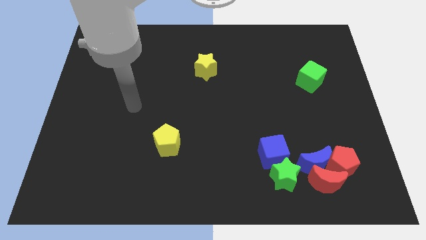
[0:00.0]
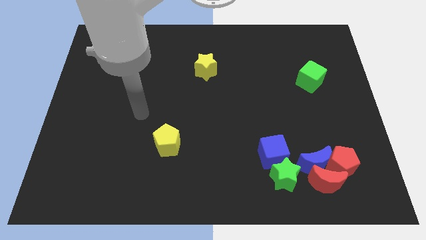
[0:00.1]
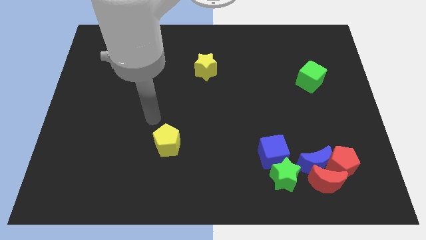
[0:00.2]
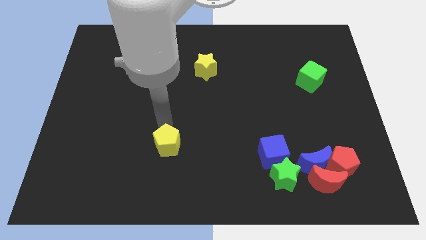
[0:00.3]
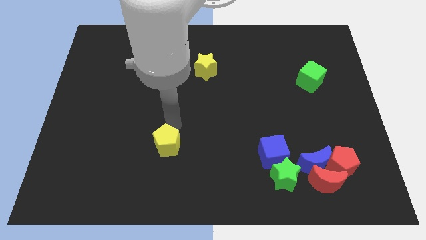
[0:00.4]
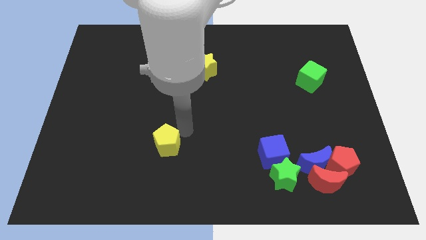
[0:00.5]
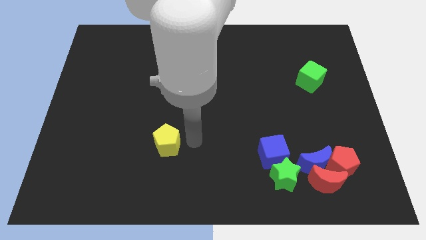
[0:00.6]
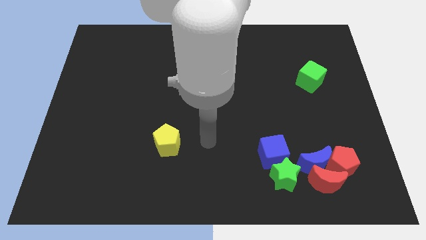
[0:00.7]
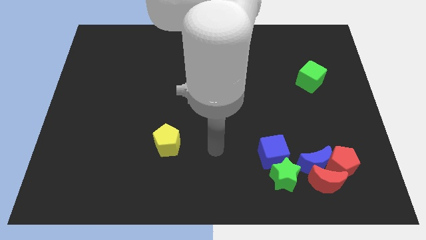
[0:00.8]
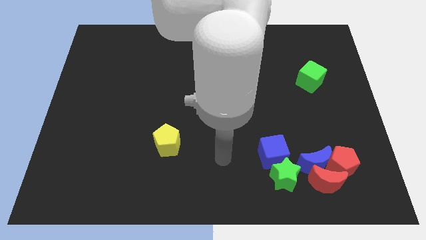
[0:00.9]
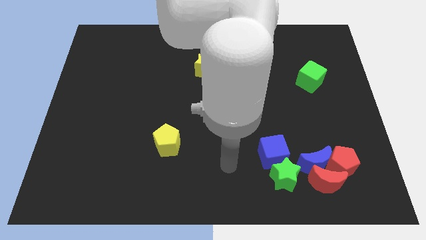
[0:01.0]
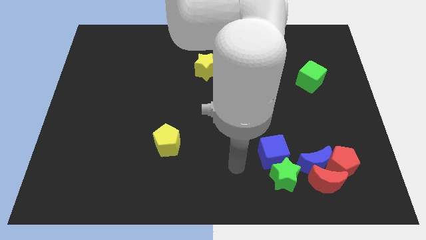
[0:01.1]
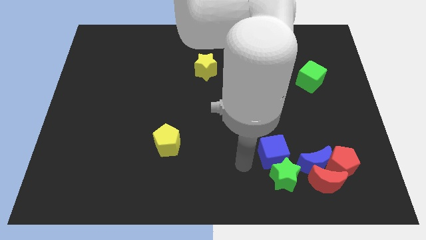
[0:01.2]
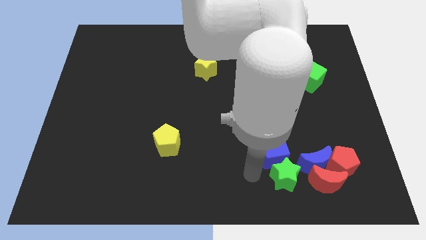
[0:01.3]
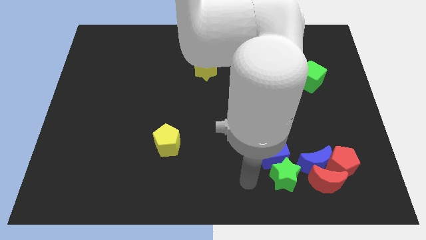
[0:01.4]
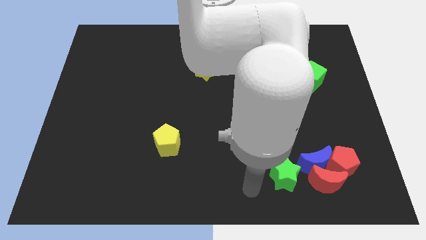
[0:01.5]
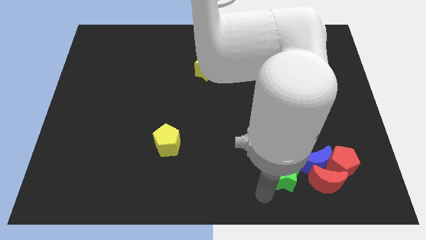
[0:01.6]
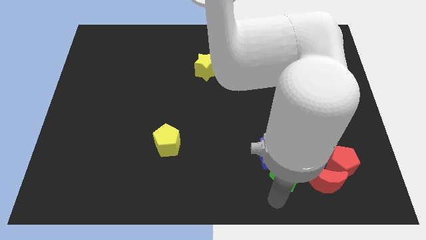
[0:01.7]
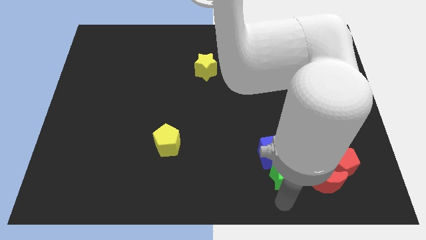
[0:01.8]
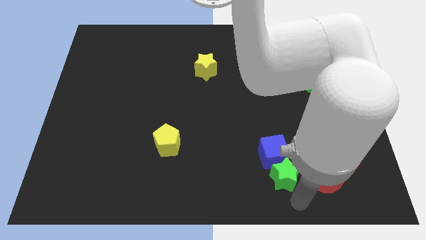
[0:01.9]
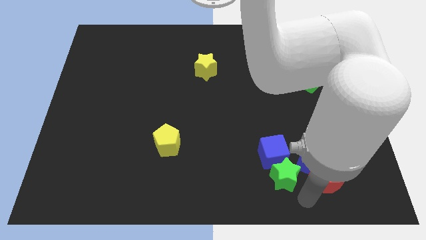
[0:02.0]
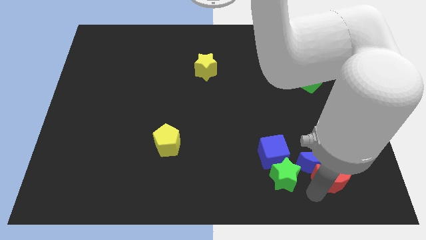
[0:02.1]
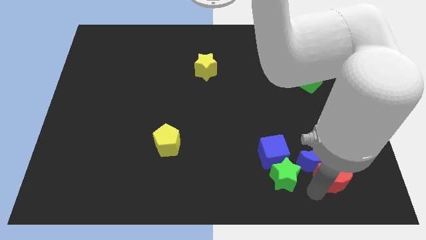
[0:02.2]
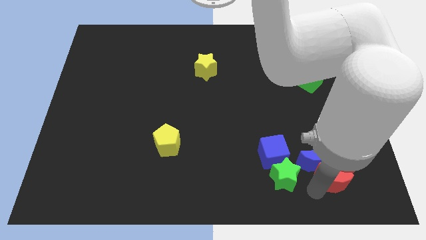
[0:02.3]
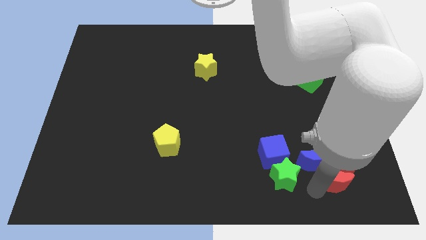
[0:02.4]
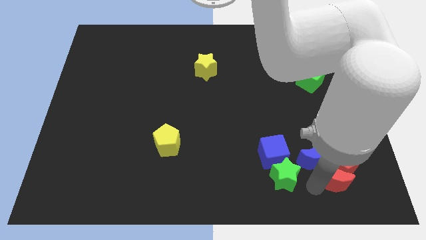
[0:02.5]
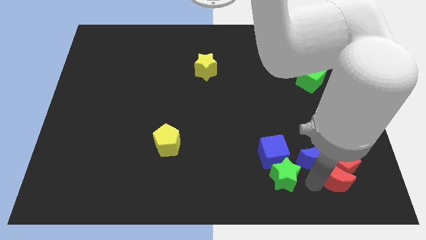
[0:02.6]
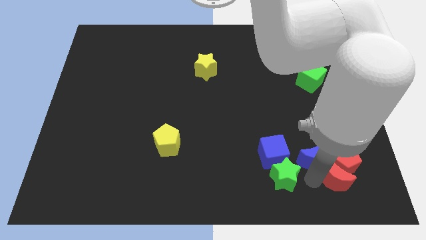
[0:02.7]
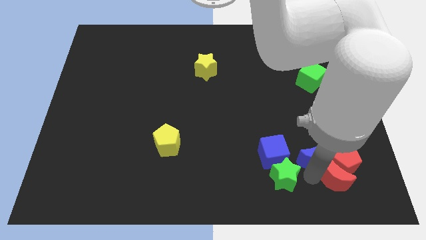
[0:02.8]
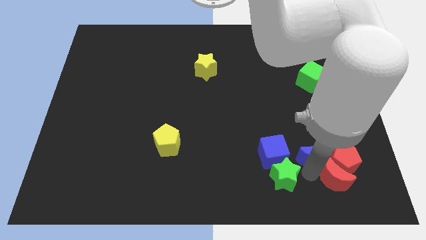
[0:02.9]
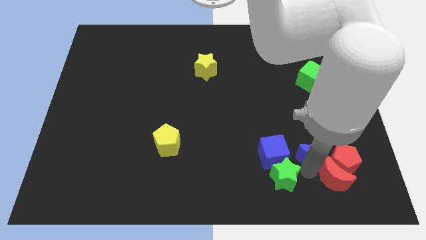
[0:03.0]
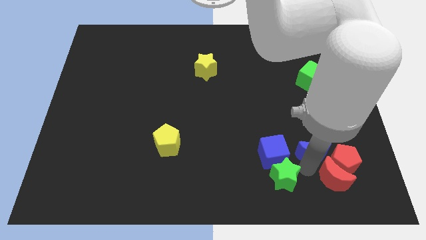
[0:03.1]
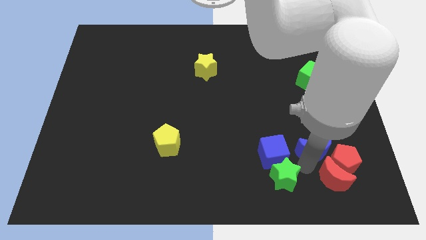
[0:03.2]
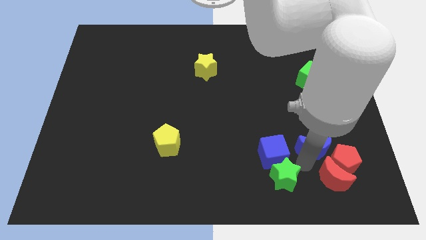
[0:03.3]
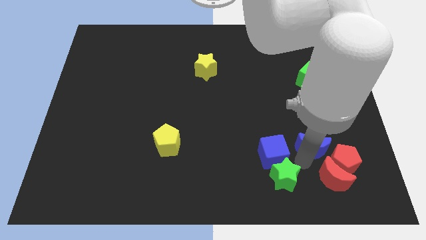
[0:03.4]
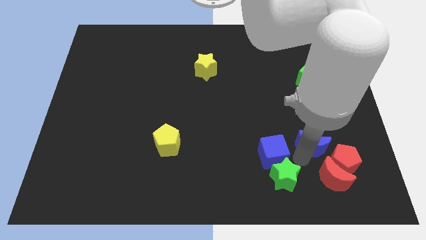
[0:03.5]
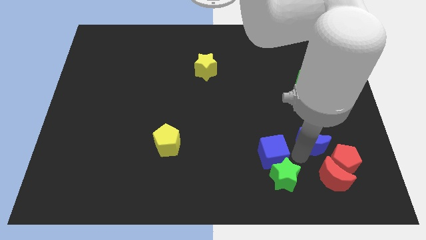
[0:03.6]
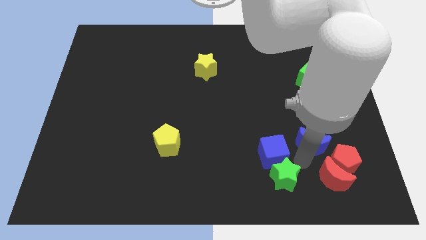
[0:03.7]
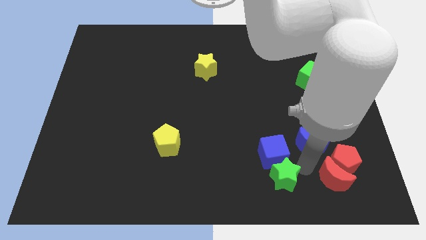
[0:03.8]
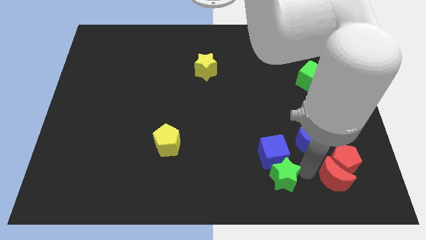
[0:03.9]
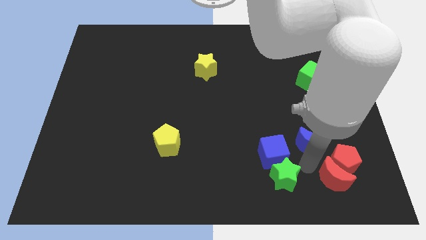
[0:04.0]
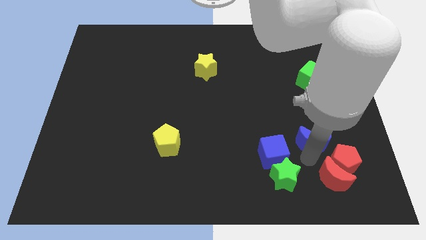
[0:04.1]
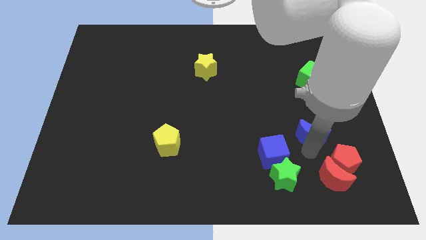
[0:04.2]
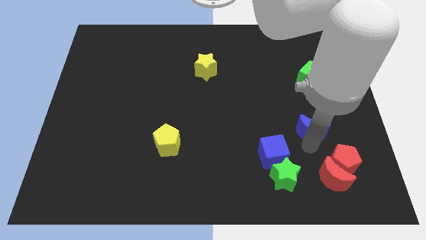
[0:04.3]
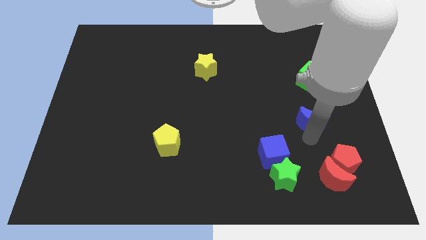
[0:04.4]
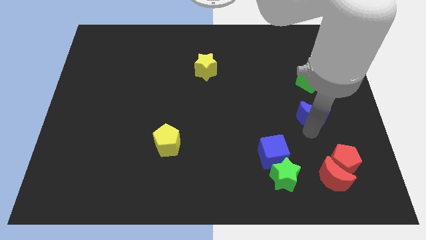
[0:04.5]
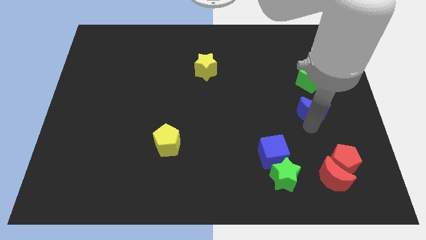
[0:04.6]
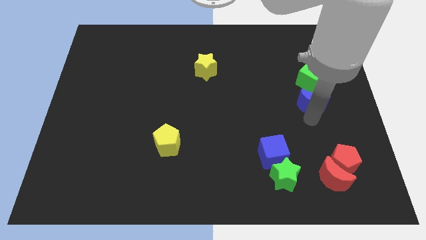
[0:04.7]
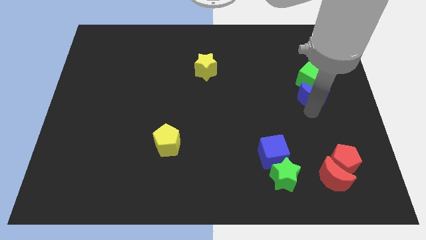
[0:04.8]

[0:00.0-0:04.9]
move the blue moon towards the green cube

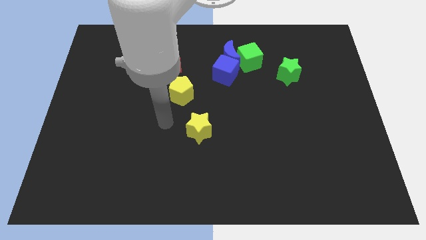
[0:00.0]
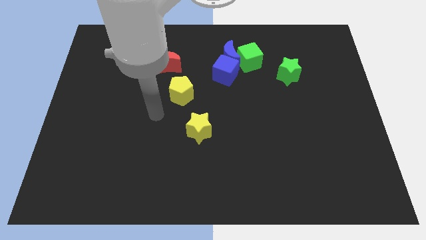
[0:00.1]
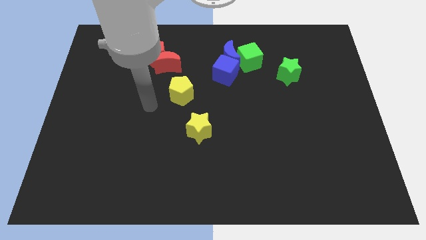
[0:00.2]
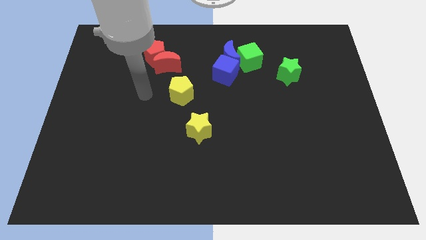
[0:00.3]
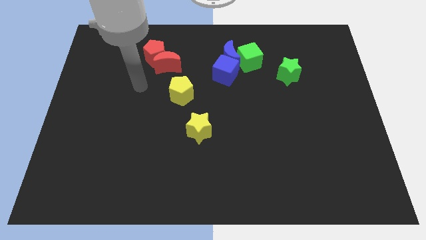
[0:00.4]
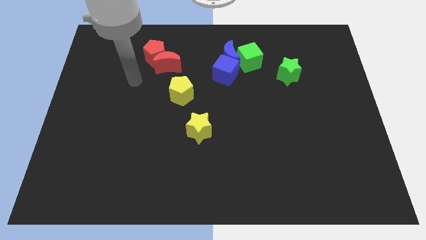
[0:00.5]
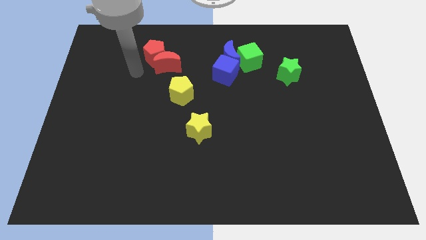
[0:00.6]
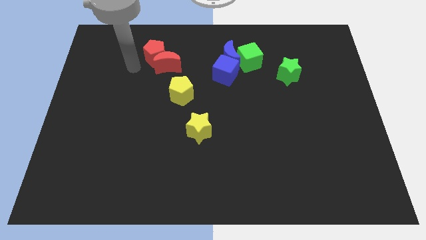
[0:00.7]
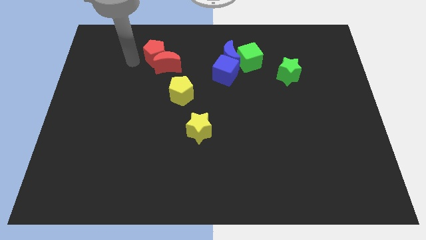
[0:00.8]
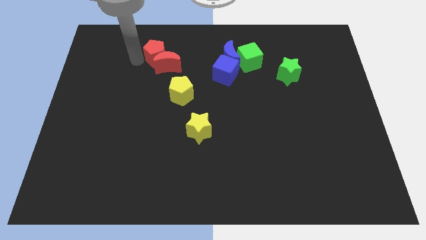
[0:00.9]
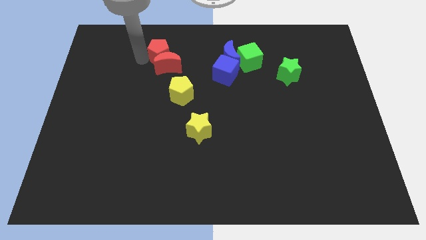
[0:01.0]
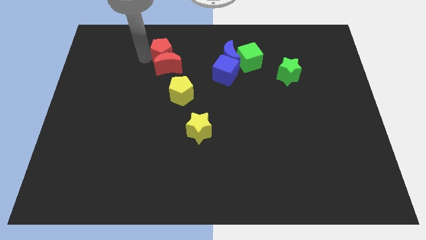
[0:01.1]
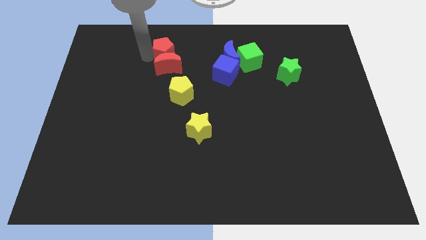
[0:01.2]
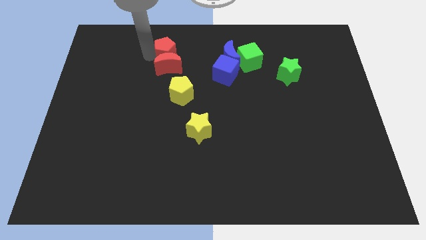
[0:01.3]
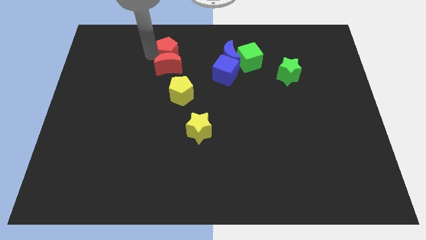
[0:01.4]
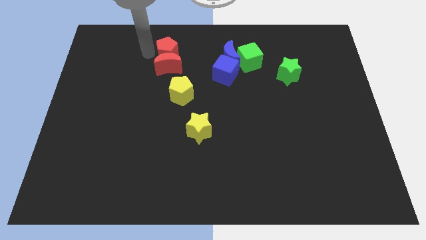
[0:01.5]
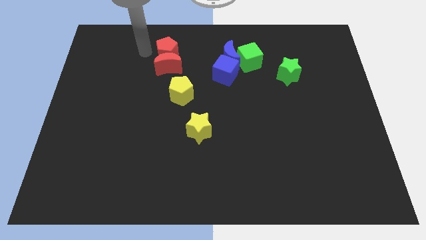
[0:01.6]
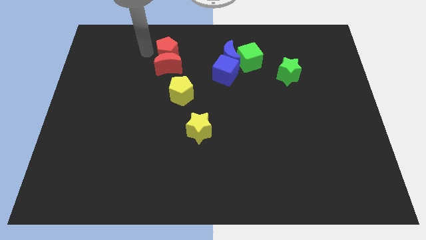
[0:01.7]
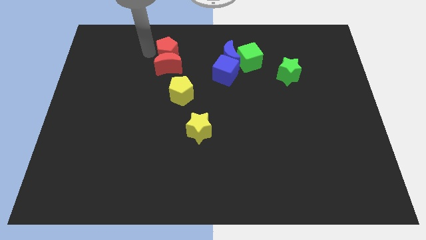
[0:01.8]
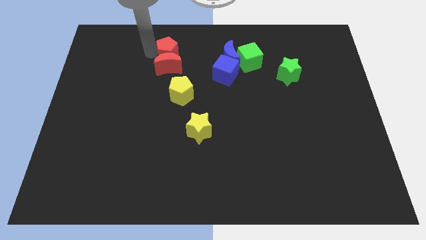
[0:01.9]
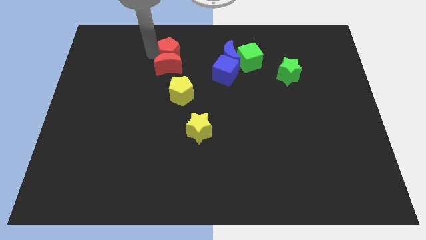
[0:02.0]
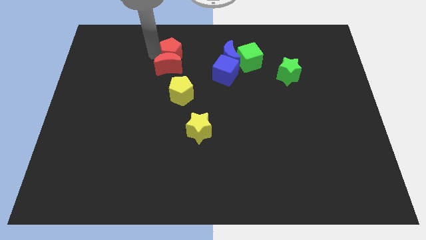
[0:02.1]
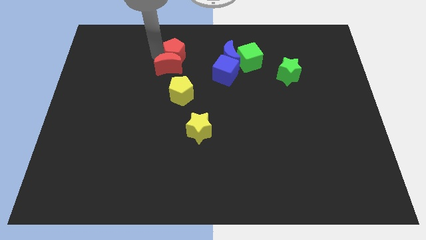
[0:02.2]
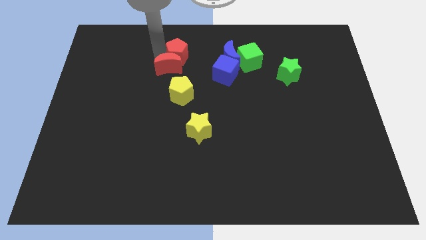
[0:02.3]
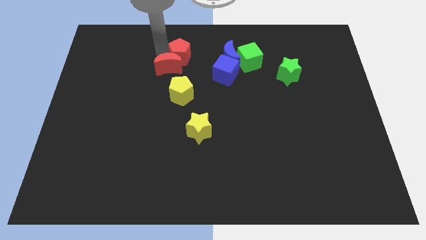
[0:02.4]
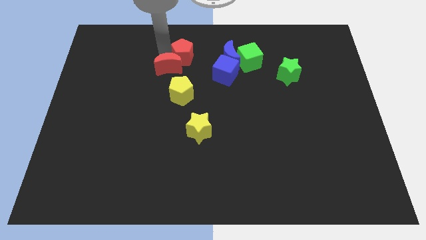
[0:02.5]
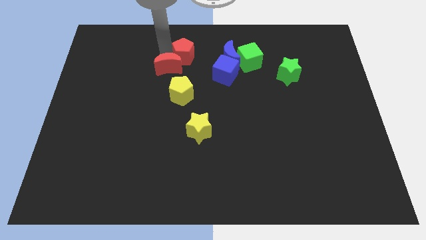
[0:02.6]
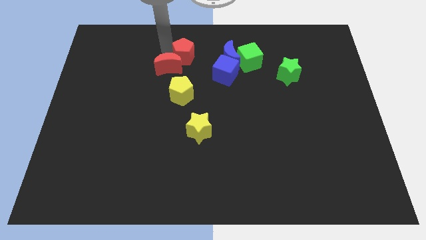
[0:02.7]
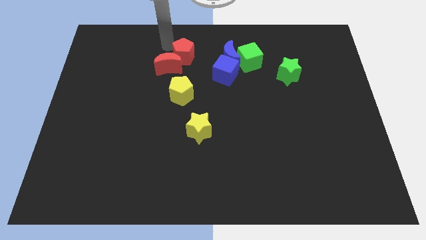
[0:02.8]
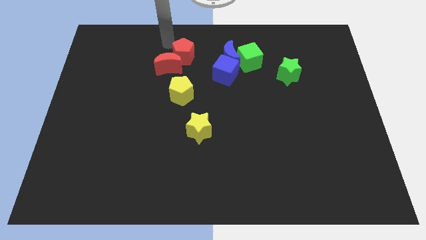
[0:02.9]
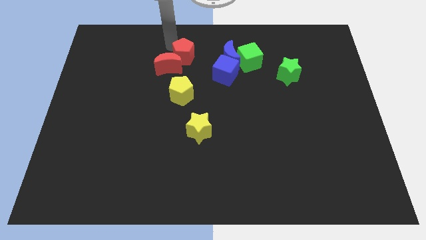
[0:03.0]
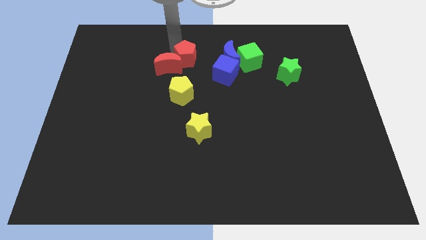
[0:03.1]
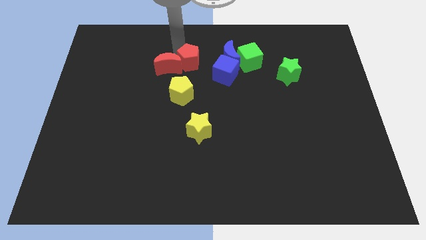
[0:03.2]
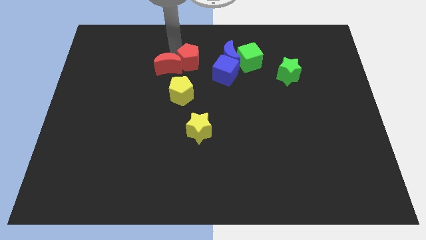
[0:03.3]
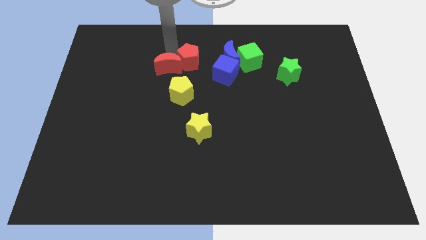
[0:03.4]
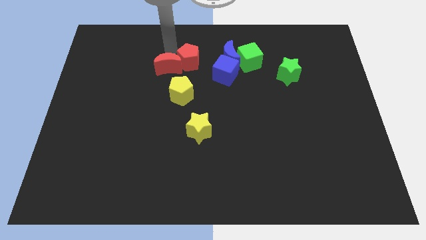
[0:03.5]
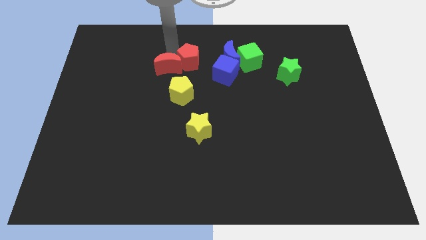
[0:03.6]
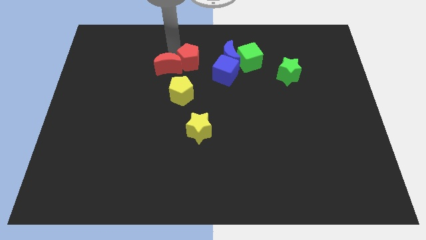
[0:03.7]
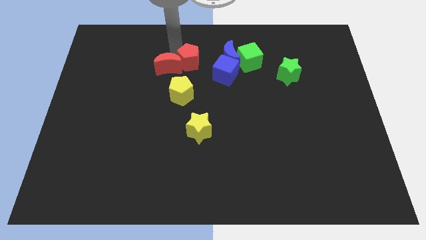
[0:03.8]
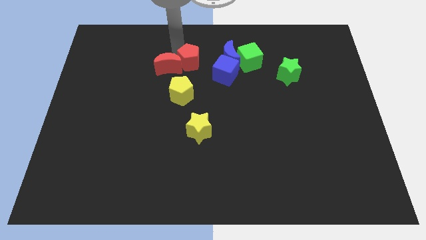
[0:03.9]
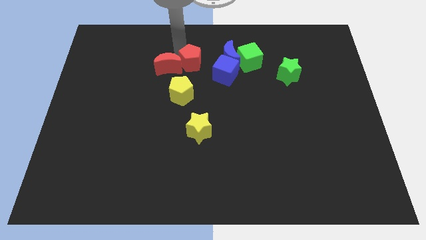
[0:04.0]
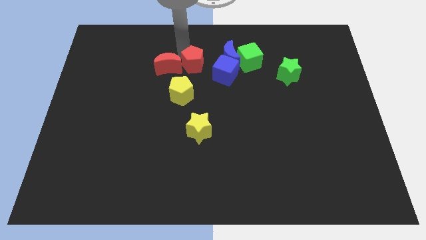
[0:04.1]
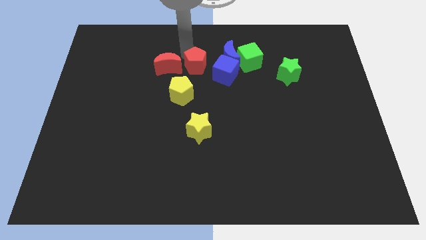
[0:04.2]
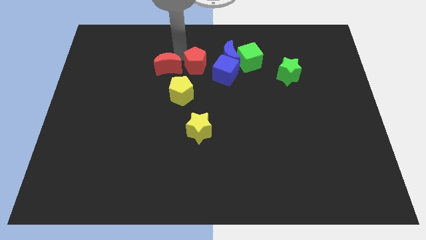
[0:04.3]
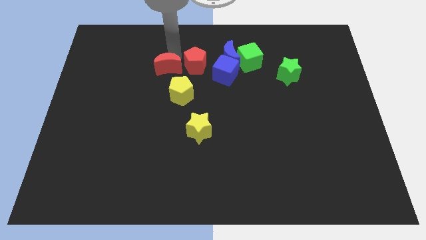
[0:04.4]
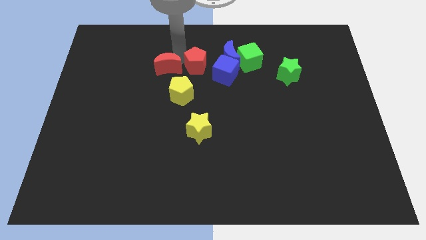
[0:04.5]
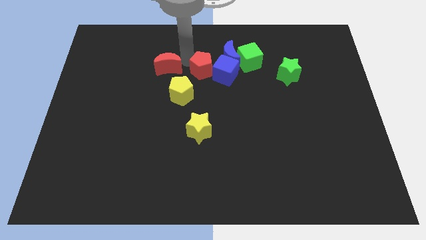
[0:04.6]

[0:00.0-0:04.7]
move the red pentagon towards the blue cube
